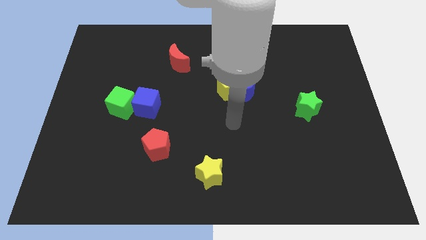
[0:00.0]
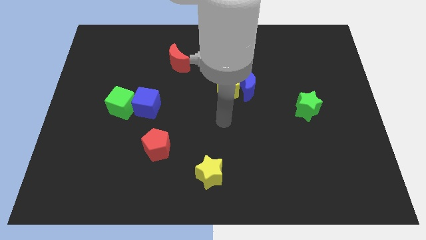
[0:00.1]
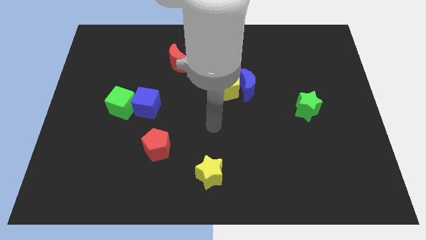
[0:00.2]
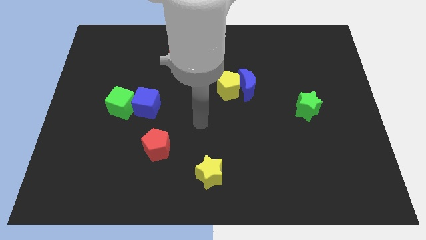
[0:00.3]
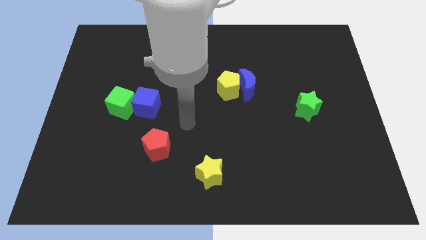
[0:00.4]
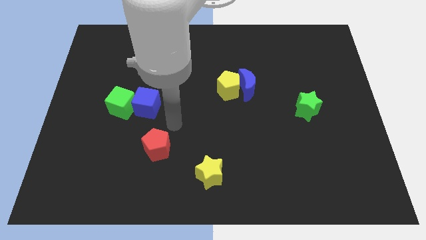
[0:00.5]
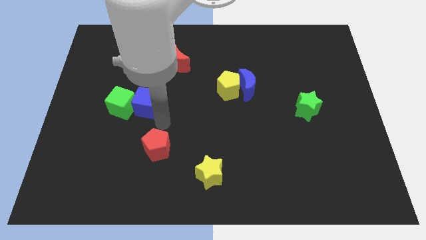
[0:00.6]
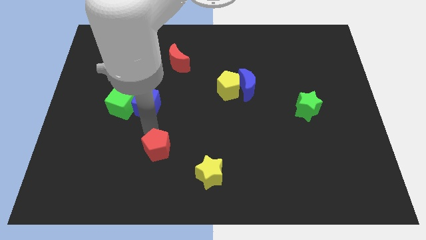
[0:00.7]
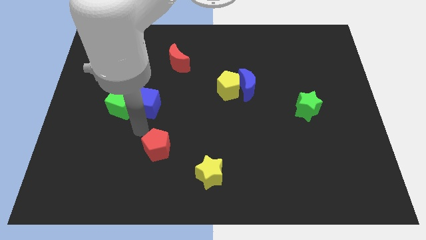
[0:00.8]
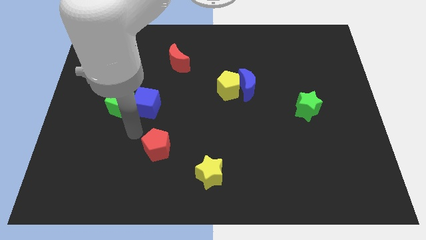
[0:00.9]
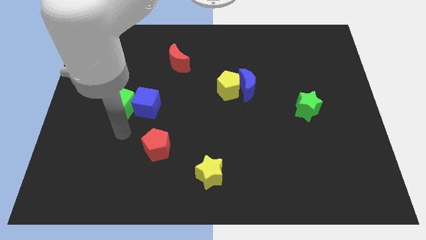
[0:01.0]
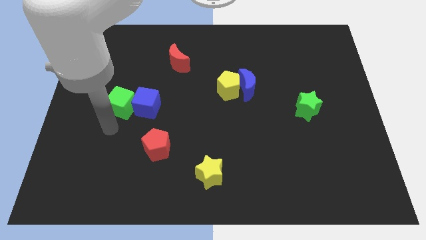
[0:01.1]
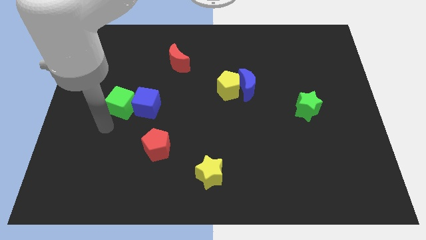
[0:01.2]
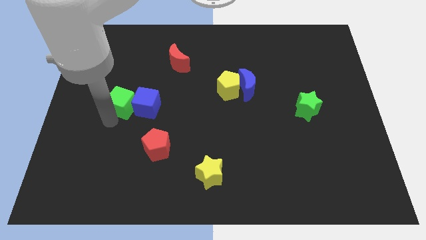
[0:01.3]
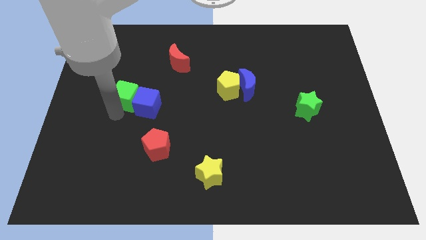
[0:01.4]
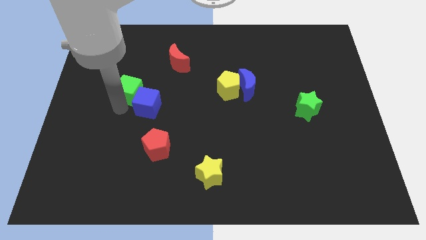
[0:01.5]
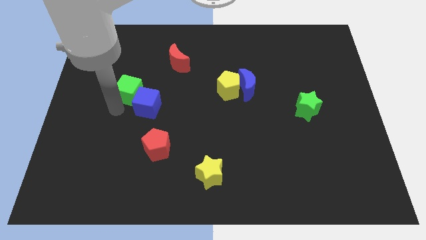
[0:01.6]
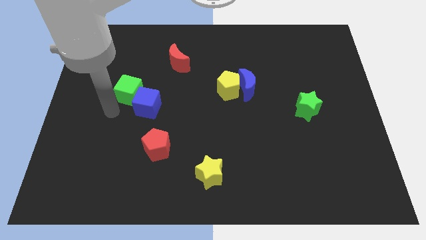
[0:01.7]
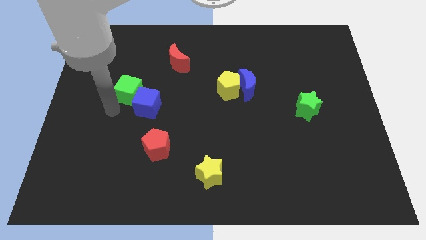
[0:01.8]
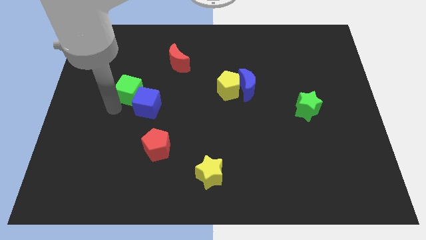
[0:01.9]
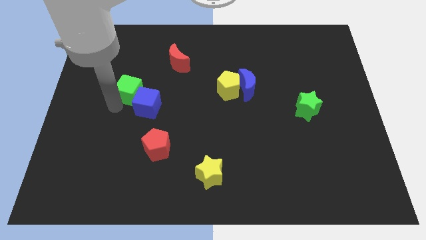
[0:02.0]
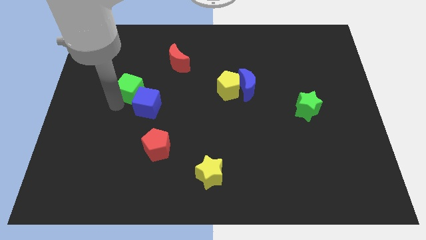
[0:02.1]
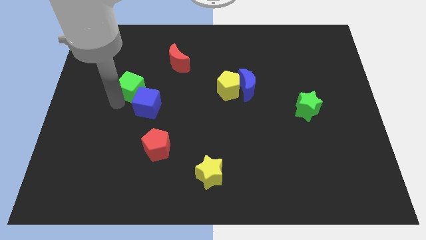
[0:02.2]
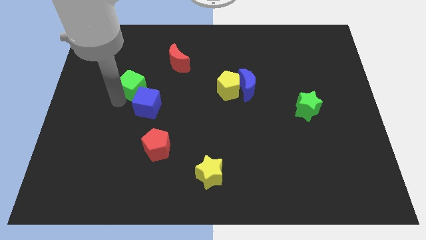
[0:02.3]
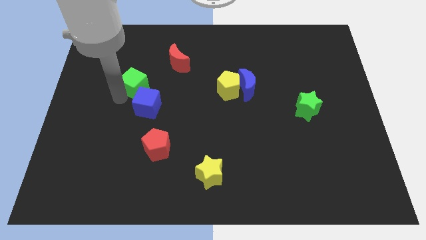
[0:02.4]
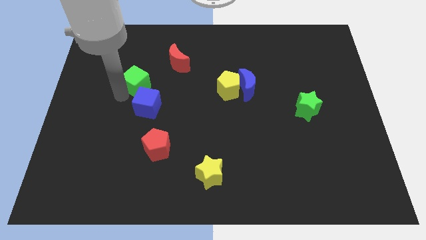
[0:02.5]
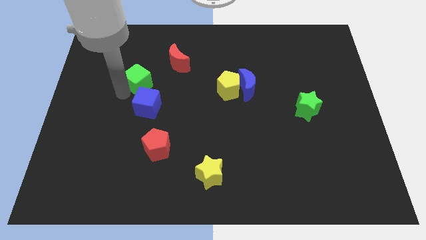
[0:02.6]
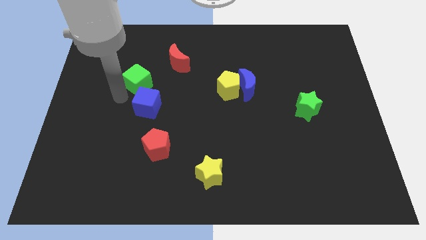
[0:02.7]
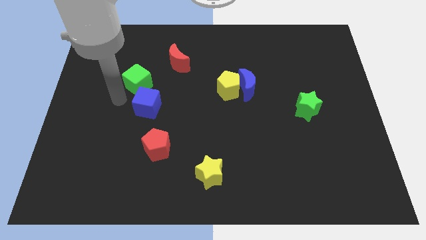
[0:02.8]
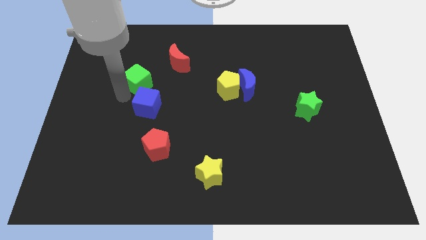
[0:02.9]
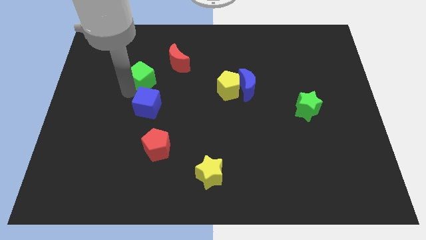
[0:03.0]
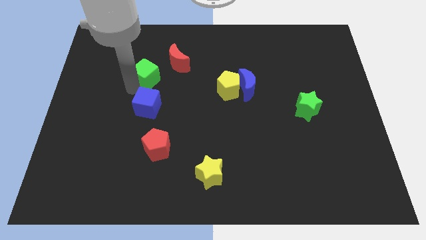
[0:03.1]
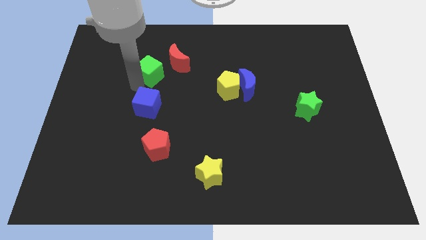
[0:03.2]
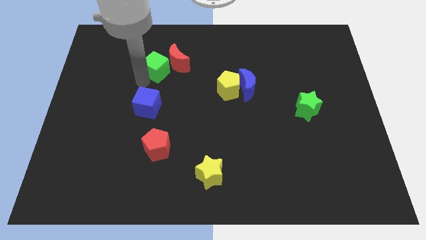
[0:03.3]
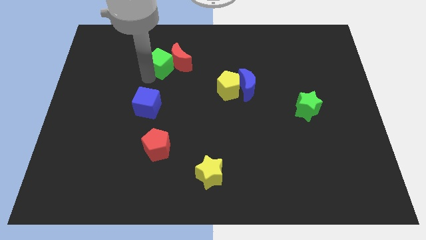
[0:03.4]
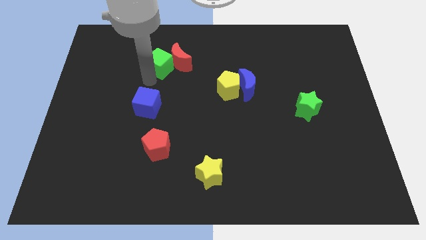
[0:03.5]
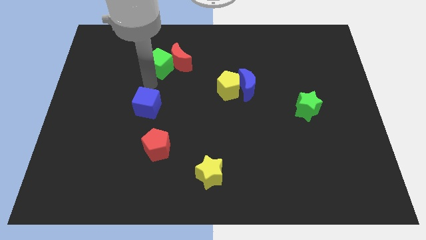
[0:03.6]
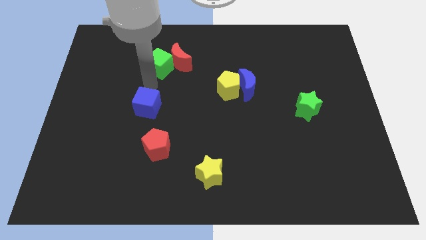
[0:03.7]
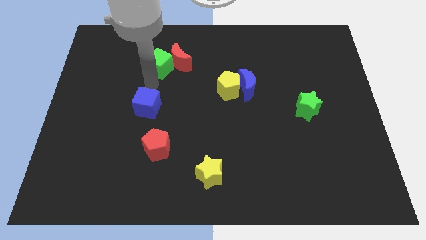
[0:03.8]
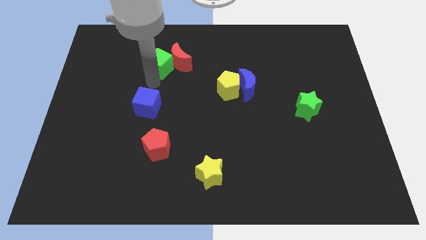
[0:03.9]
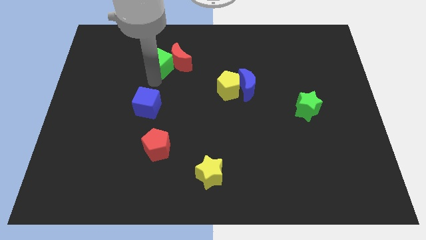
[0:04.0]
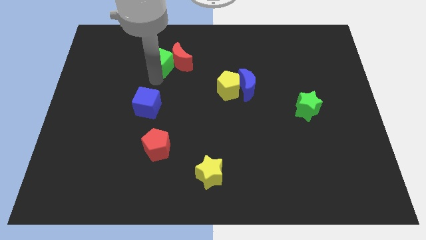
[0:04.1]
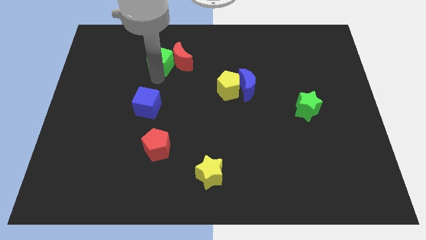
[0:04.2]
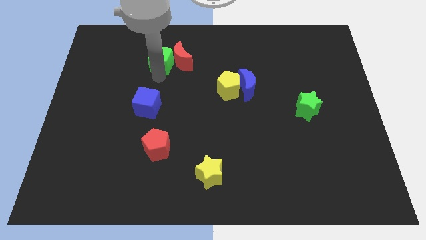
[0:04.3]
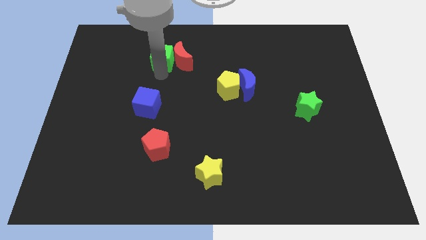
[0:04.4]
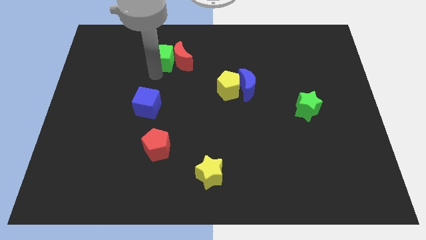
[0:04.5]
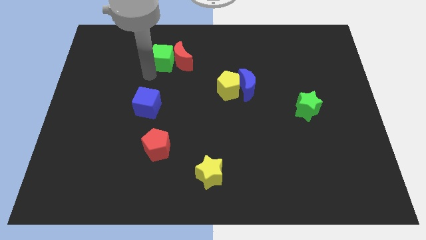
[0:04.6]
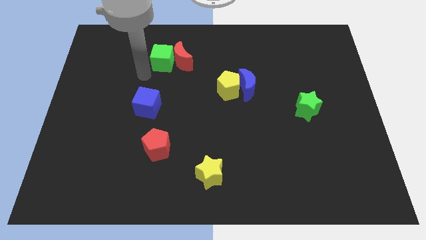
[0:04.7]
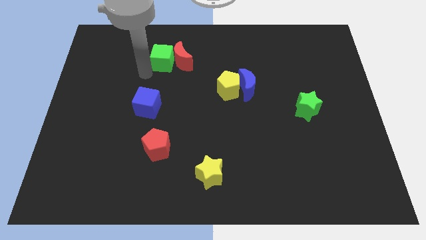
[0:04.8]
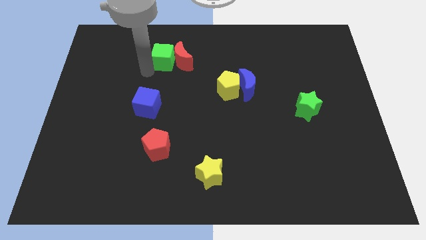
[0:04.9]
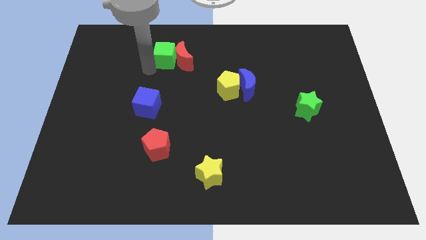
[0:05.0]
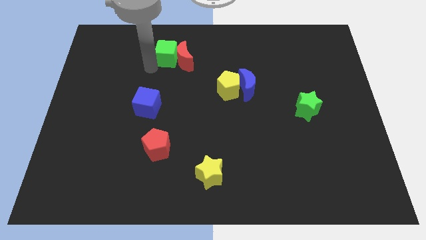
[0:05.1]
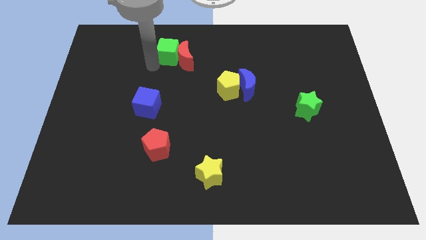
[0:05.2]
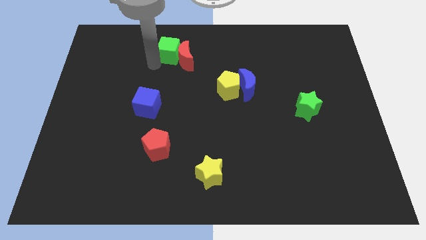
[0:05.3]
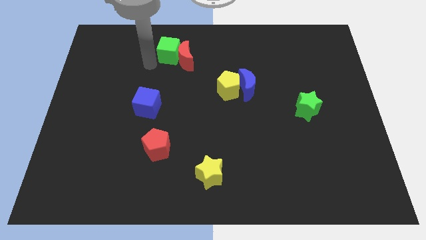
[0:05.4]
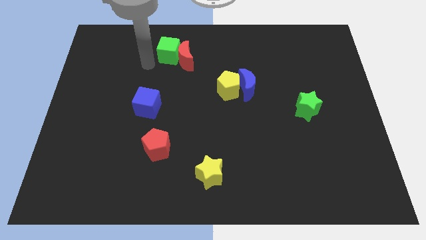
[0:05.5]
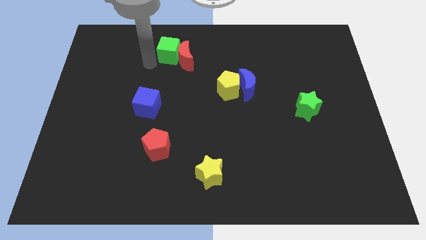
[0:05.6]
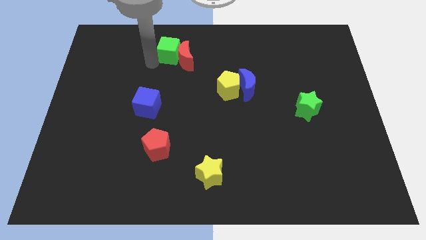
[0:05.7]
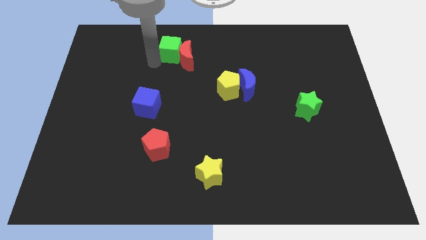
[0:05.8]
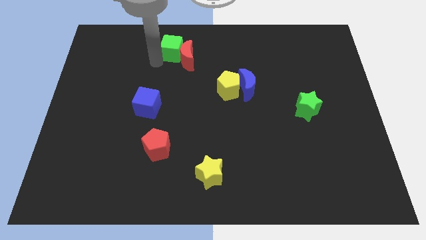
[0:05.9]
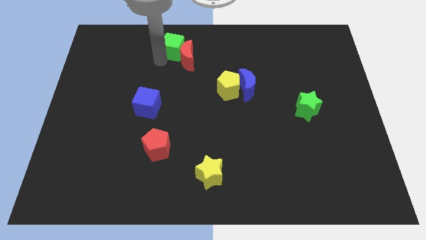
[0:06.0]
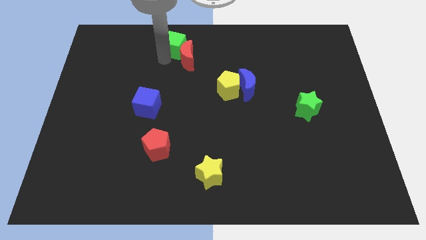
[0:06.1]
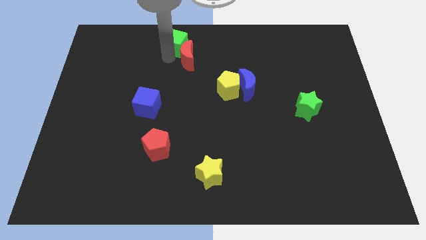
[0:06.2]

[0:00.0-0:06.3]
push the green cube to the top
